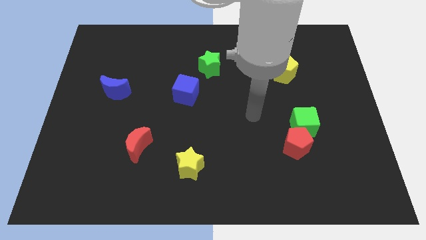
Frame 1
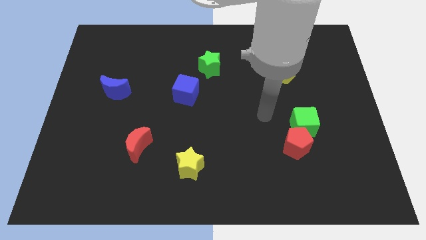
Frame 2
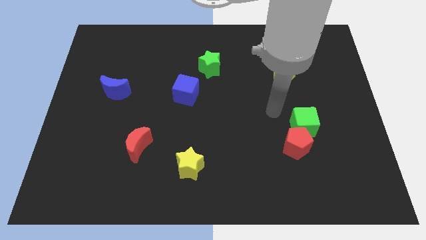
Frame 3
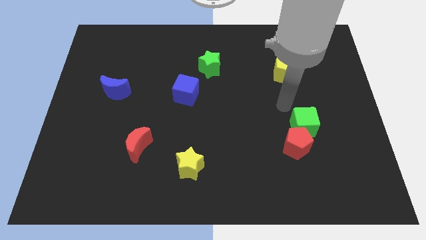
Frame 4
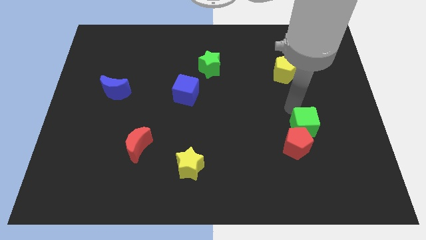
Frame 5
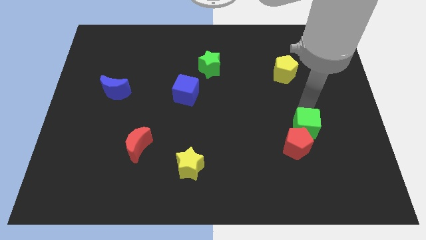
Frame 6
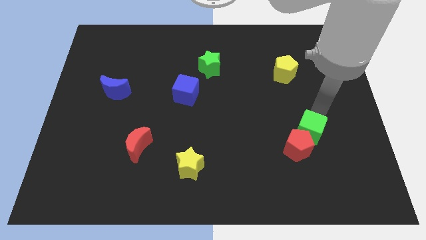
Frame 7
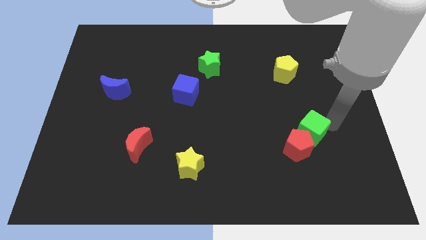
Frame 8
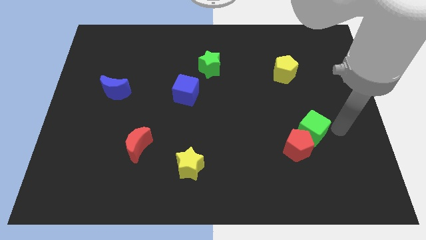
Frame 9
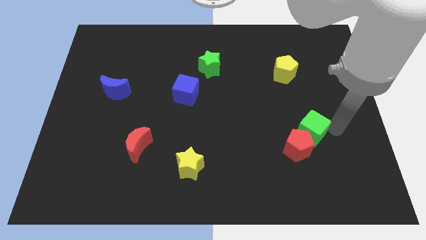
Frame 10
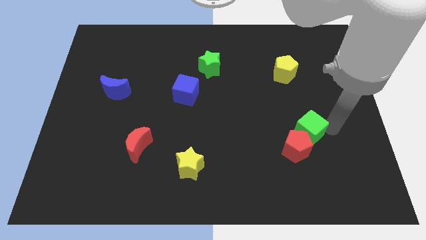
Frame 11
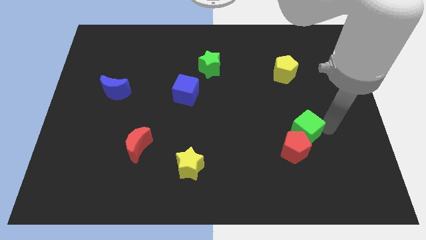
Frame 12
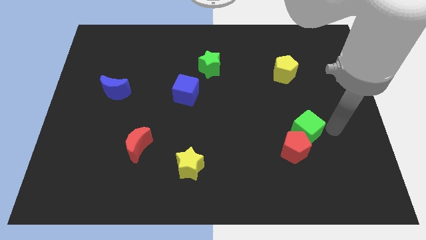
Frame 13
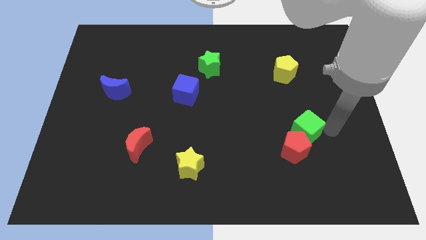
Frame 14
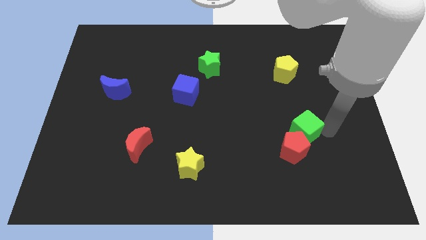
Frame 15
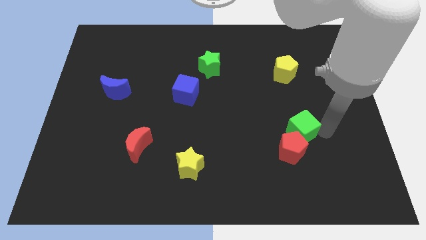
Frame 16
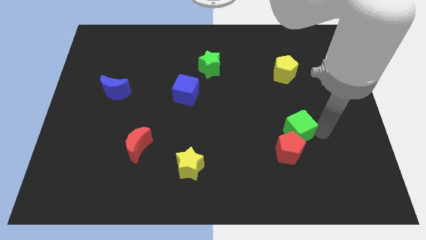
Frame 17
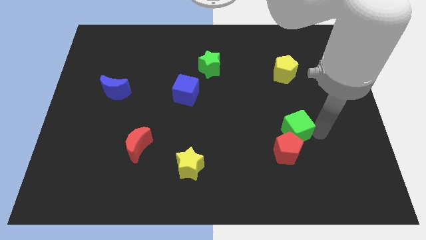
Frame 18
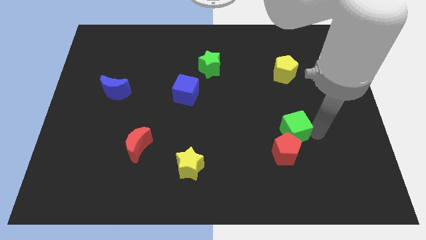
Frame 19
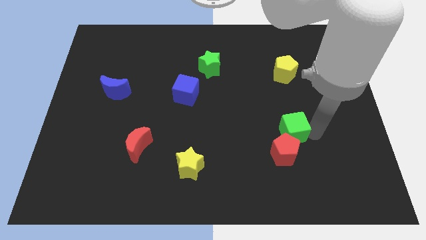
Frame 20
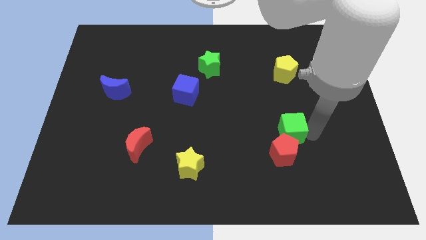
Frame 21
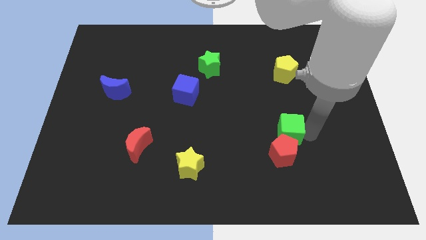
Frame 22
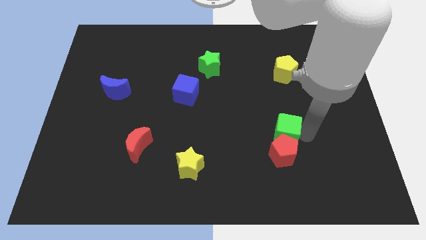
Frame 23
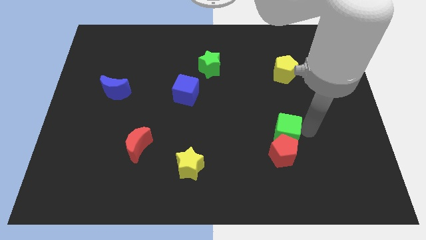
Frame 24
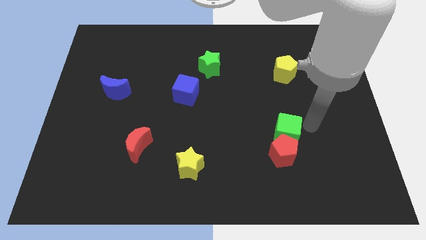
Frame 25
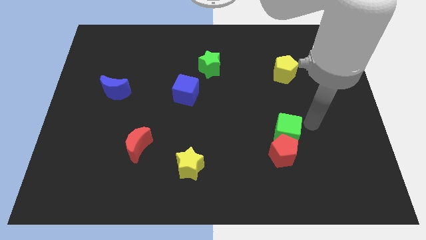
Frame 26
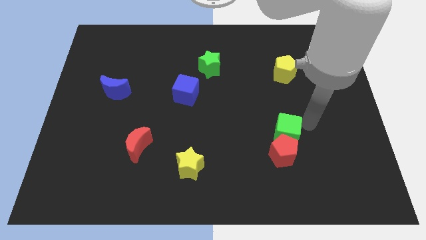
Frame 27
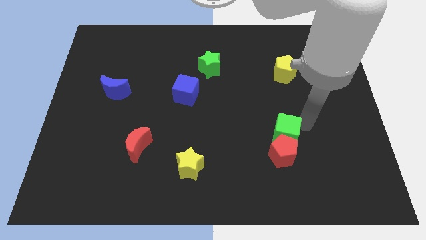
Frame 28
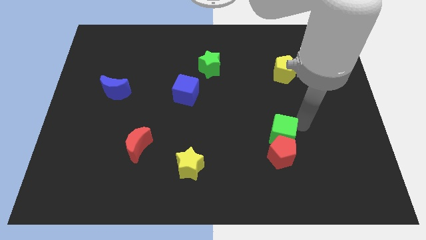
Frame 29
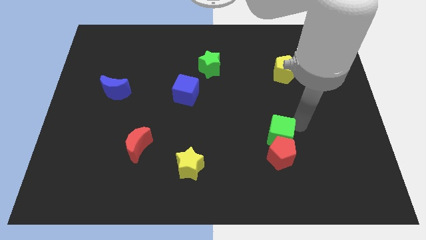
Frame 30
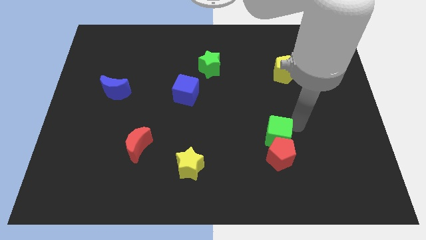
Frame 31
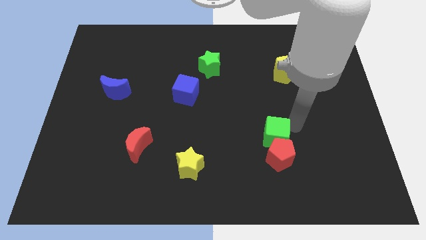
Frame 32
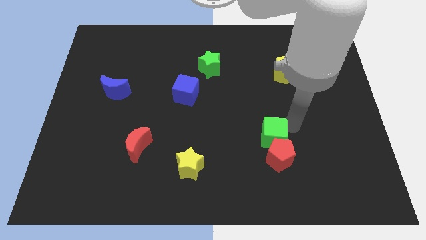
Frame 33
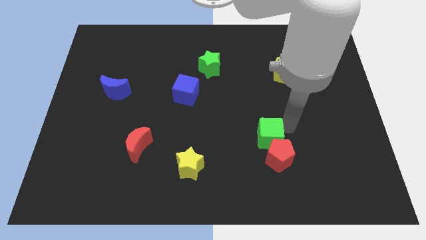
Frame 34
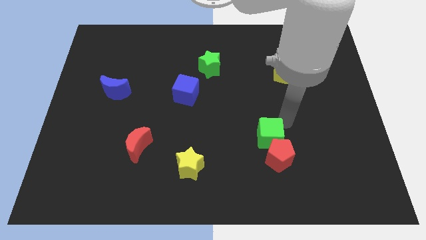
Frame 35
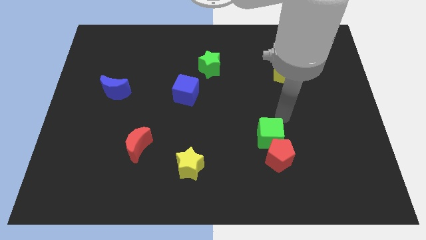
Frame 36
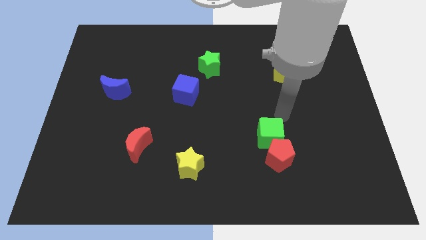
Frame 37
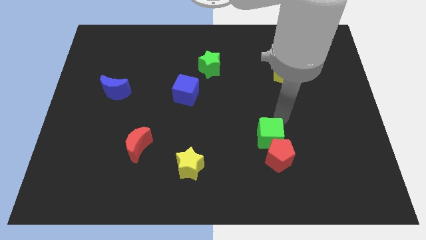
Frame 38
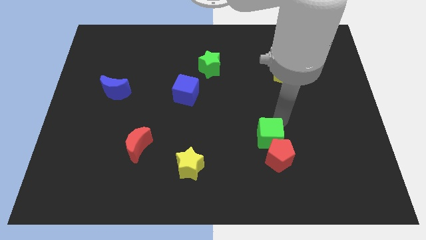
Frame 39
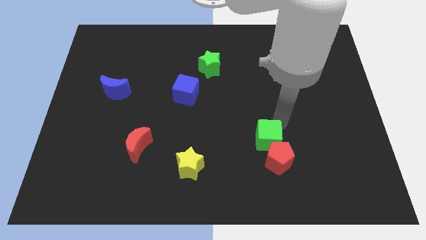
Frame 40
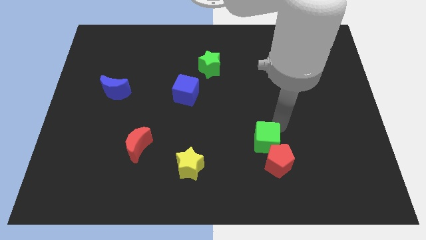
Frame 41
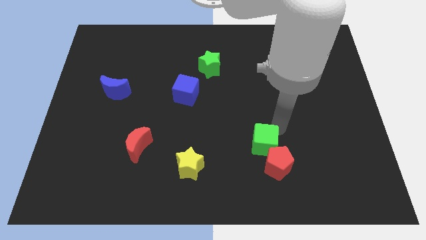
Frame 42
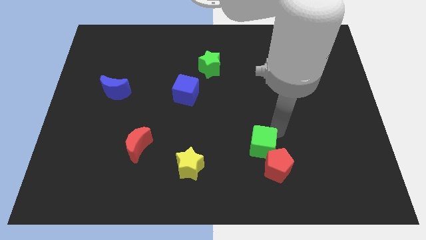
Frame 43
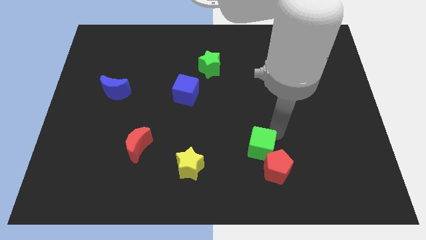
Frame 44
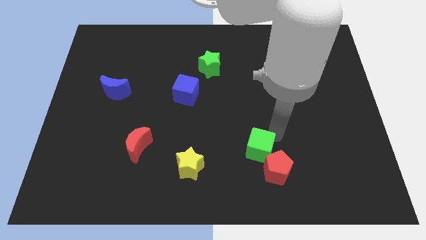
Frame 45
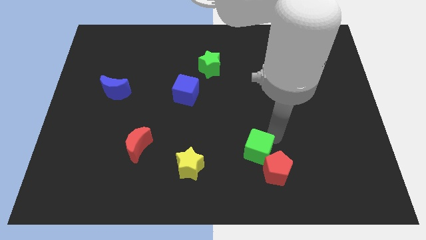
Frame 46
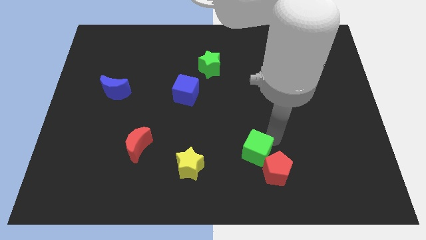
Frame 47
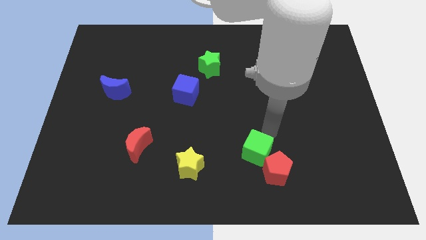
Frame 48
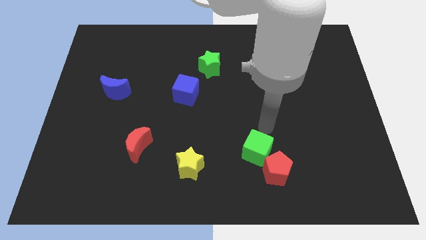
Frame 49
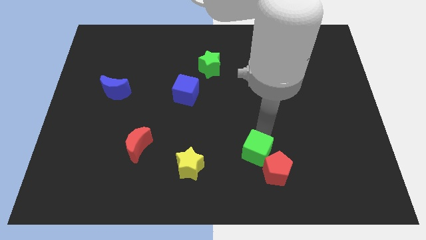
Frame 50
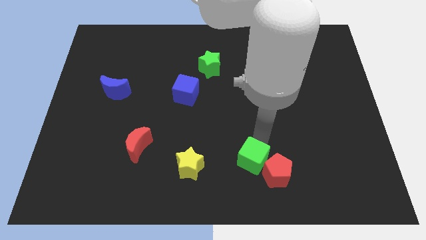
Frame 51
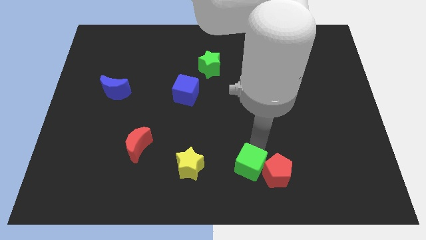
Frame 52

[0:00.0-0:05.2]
put the green cube to the bottom
